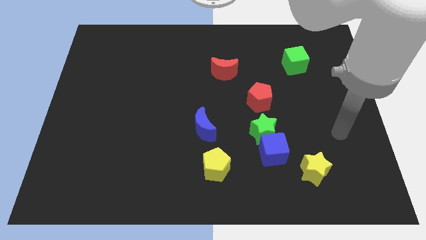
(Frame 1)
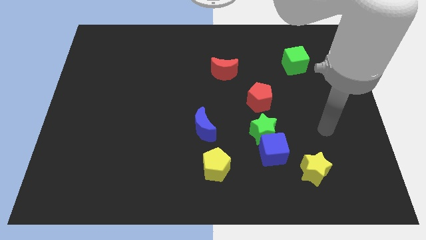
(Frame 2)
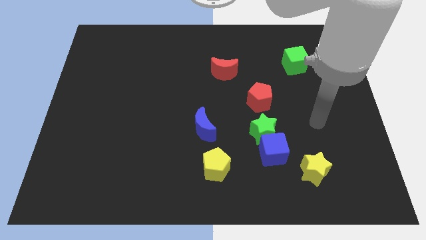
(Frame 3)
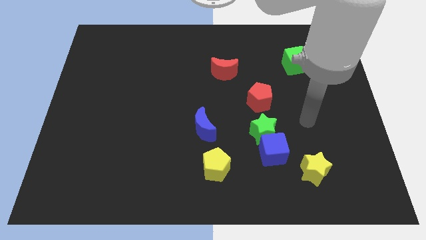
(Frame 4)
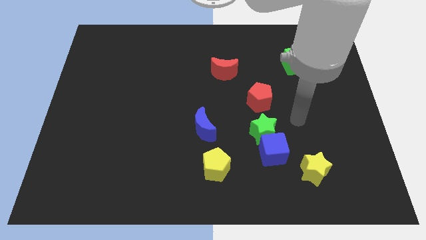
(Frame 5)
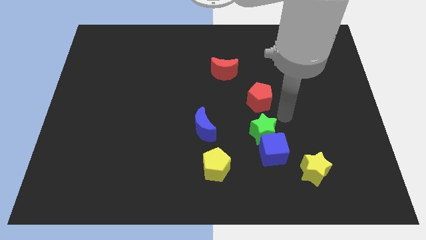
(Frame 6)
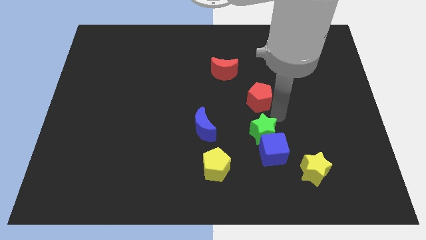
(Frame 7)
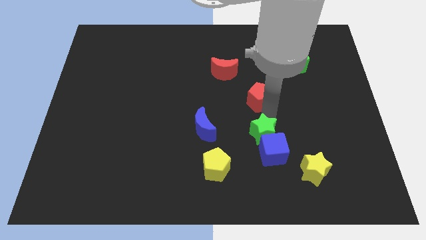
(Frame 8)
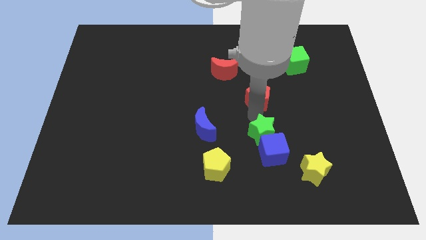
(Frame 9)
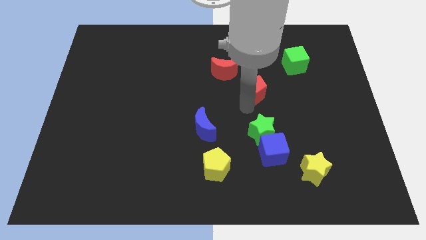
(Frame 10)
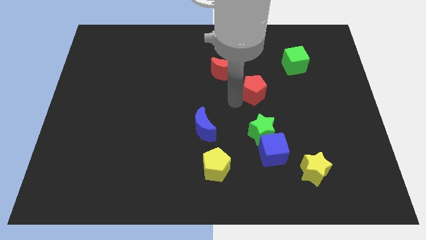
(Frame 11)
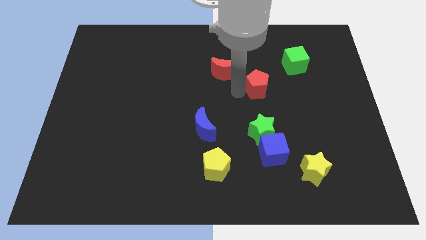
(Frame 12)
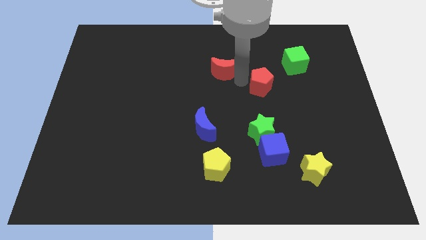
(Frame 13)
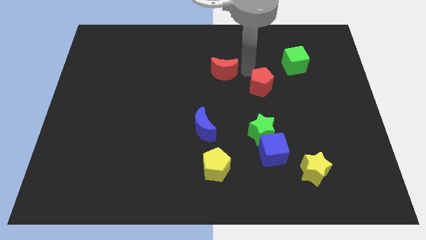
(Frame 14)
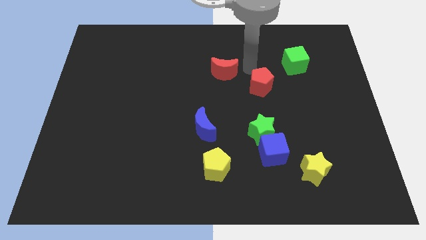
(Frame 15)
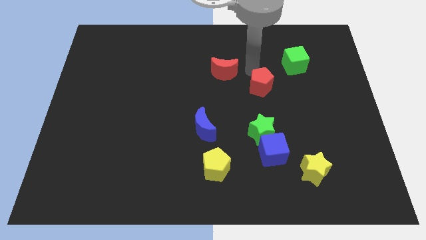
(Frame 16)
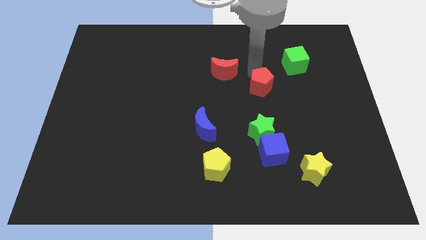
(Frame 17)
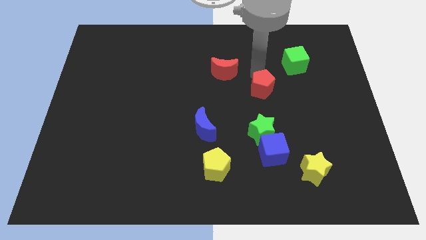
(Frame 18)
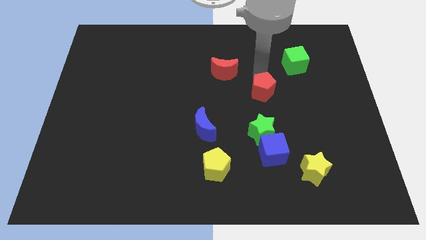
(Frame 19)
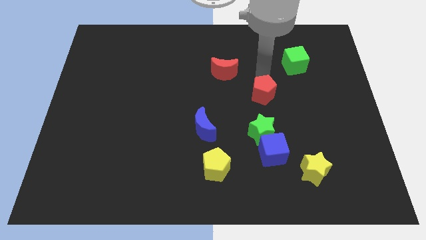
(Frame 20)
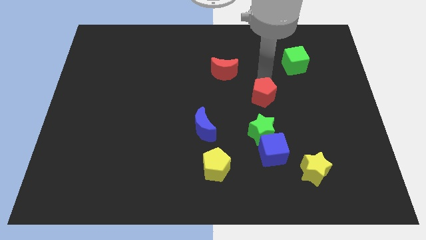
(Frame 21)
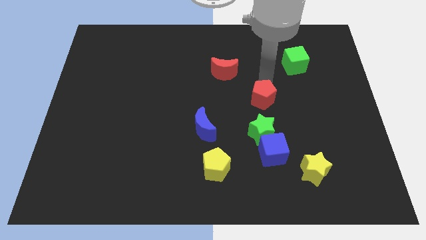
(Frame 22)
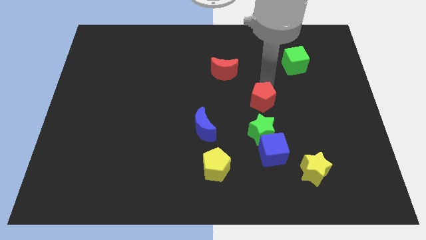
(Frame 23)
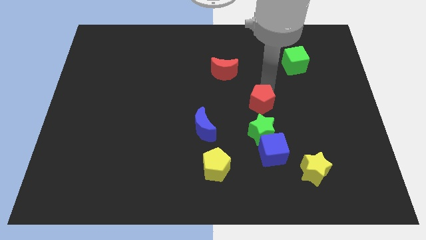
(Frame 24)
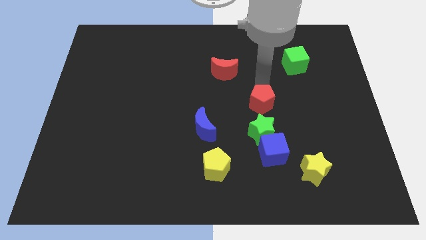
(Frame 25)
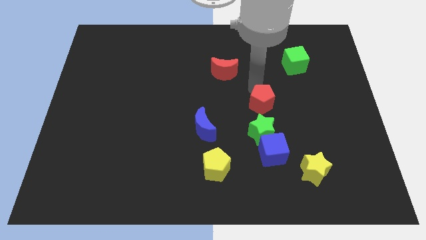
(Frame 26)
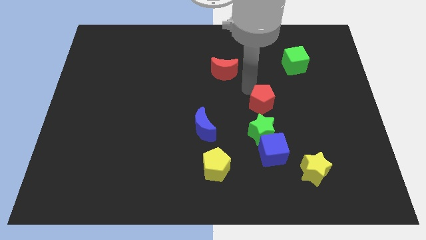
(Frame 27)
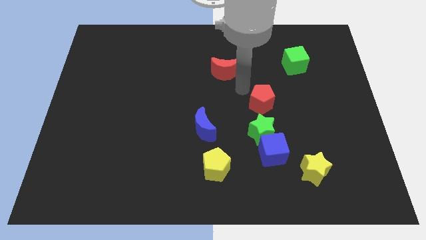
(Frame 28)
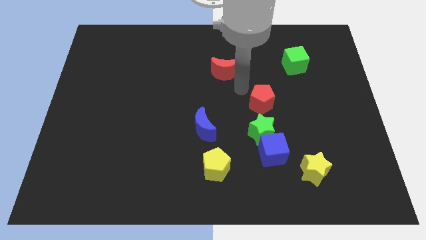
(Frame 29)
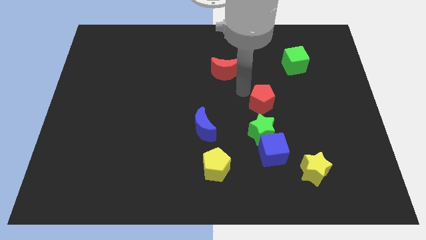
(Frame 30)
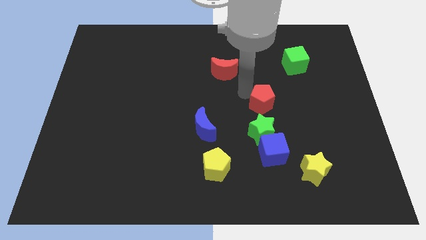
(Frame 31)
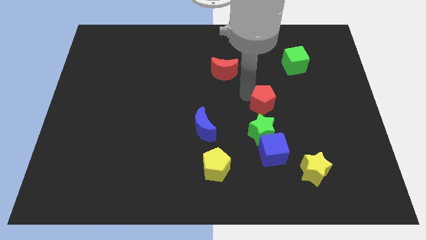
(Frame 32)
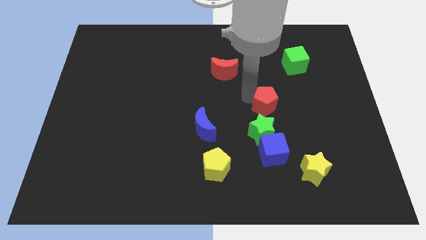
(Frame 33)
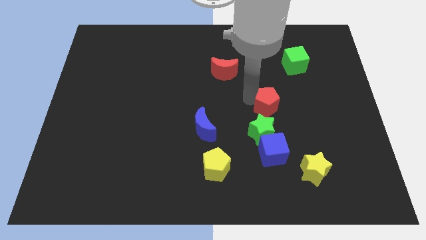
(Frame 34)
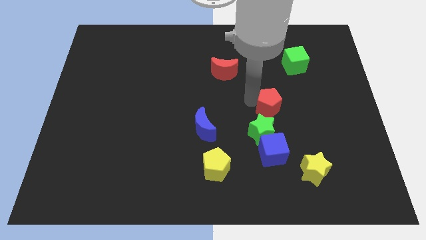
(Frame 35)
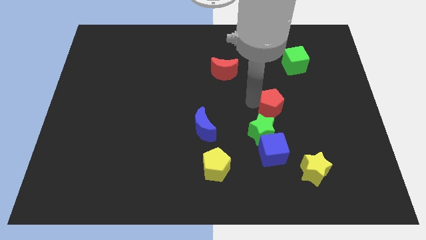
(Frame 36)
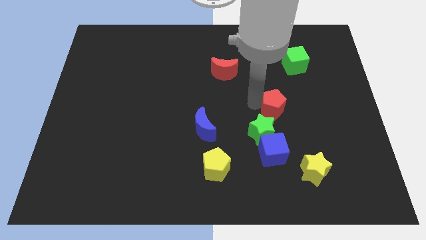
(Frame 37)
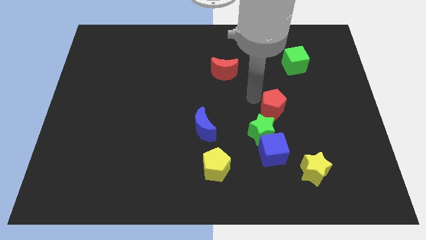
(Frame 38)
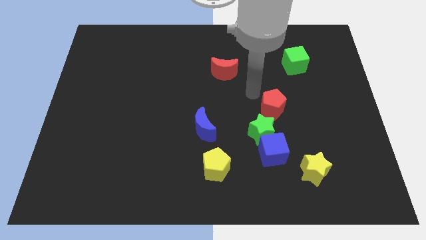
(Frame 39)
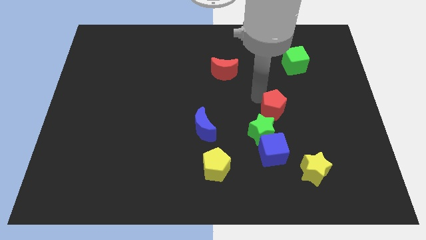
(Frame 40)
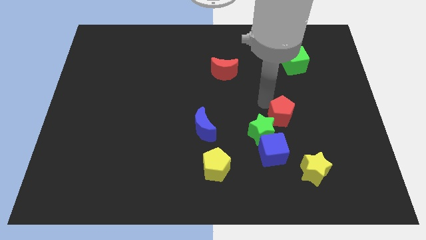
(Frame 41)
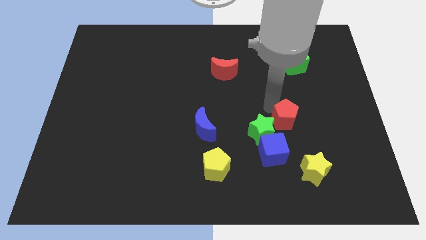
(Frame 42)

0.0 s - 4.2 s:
push the red pentagon slightly down and then right

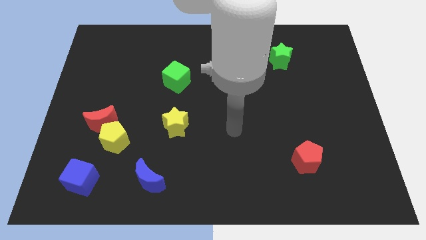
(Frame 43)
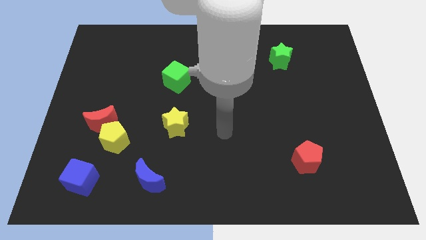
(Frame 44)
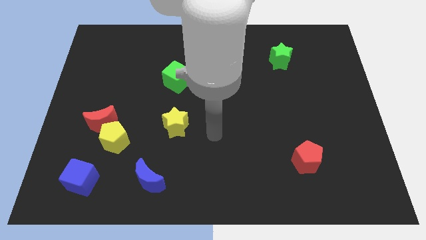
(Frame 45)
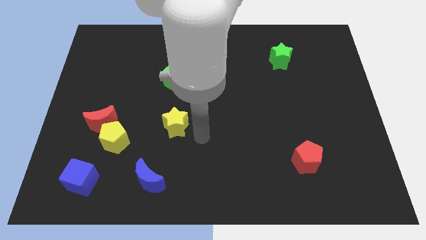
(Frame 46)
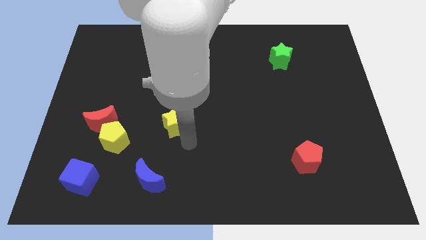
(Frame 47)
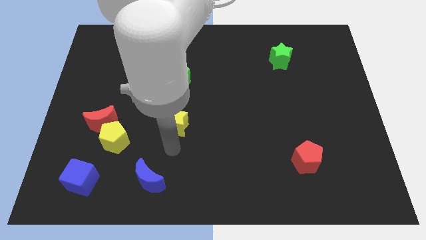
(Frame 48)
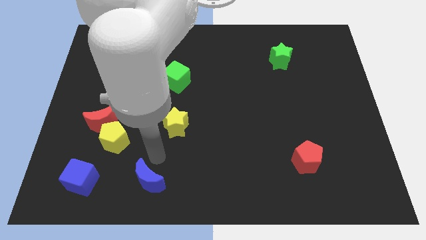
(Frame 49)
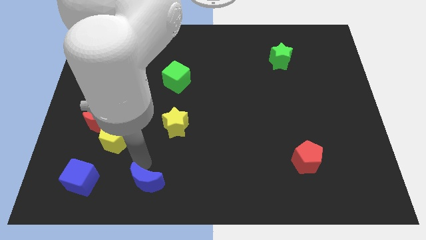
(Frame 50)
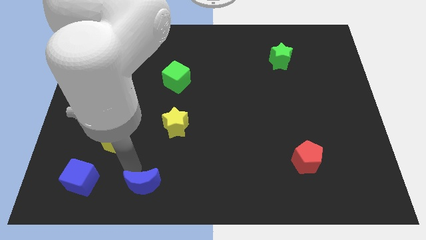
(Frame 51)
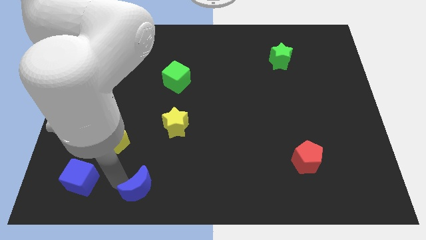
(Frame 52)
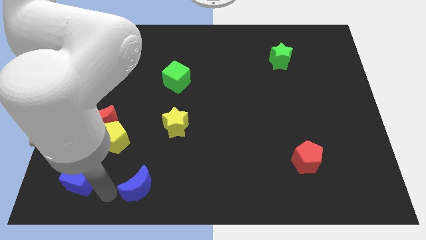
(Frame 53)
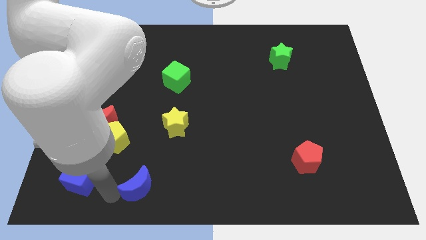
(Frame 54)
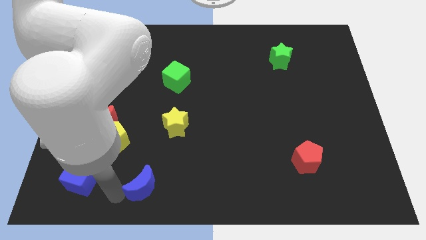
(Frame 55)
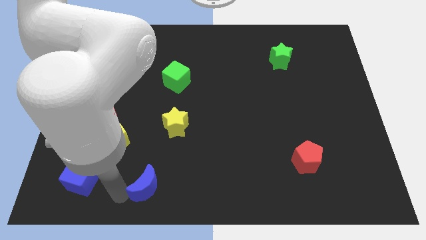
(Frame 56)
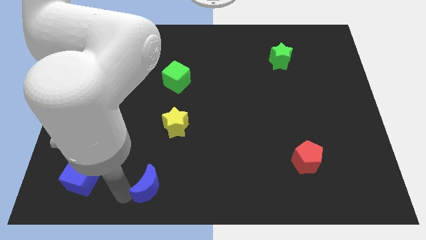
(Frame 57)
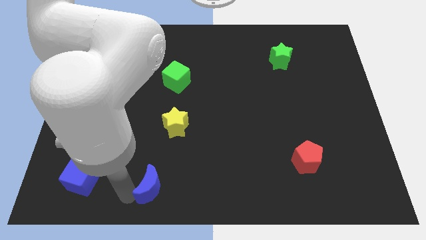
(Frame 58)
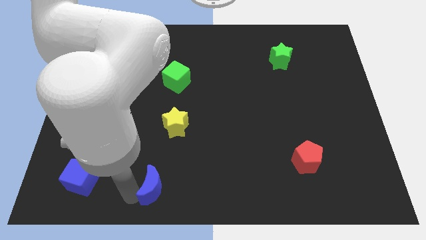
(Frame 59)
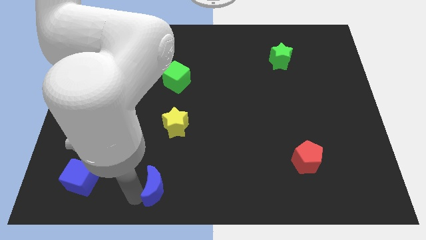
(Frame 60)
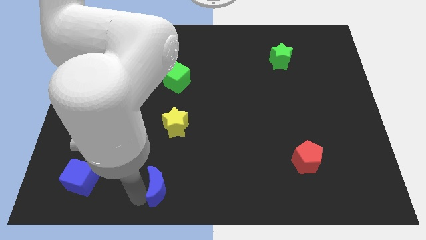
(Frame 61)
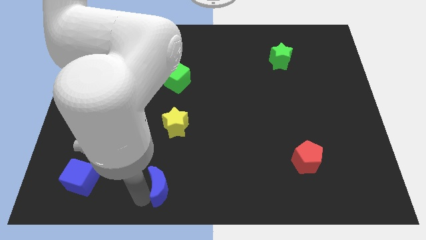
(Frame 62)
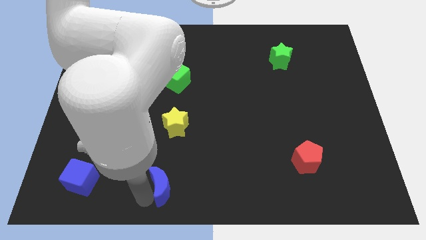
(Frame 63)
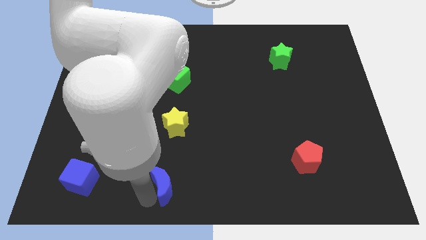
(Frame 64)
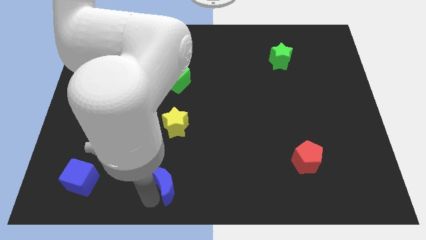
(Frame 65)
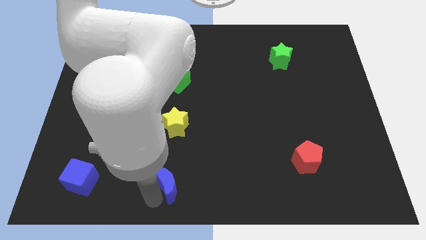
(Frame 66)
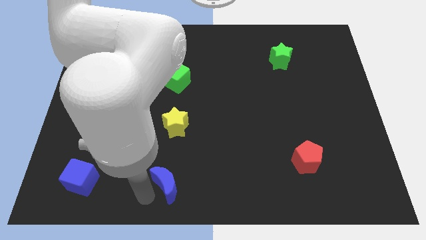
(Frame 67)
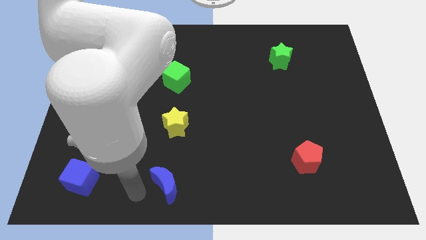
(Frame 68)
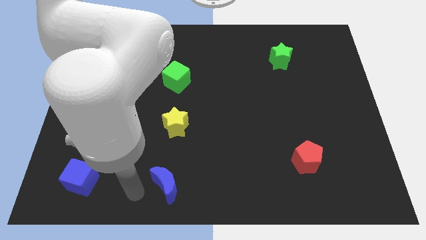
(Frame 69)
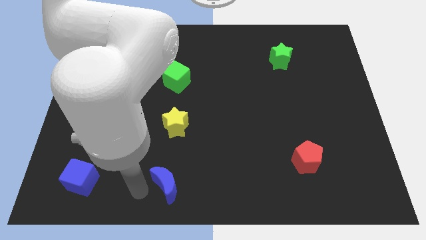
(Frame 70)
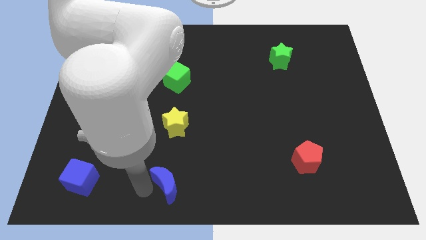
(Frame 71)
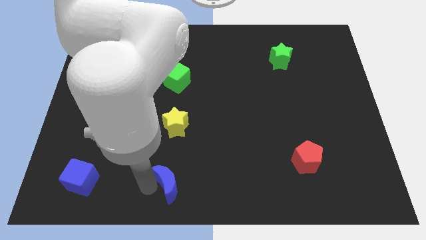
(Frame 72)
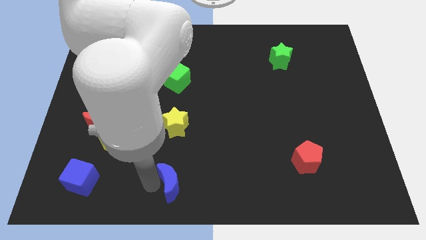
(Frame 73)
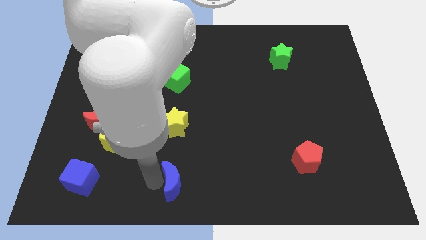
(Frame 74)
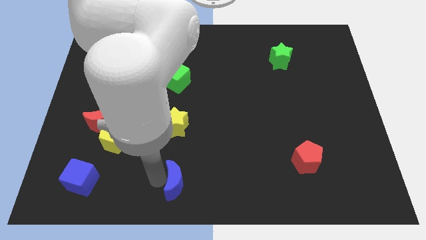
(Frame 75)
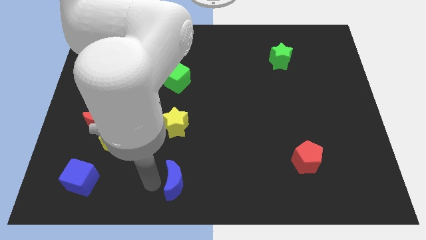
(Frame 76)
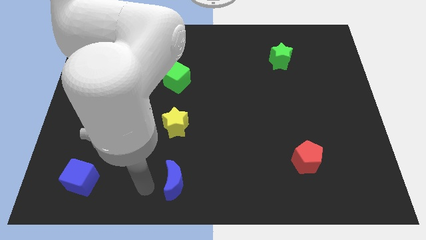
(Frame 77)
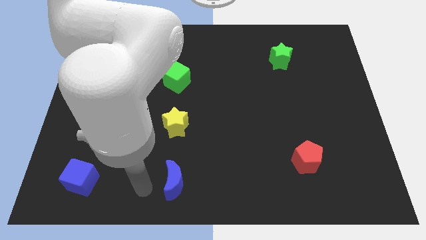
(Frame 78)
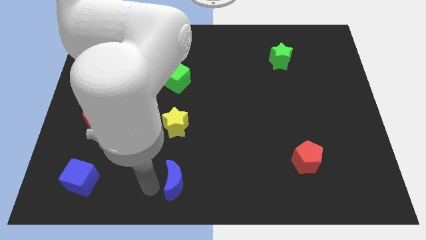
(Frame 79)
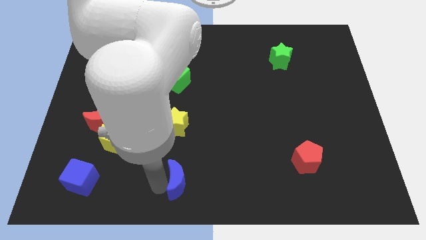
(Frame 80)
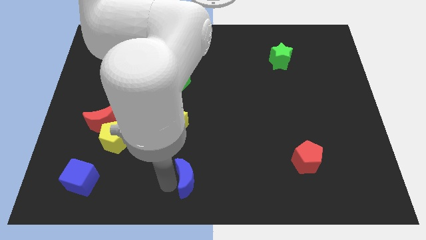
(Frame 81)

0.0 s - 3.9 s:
slightly push the blue moon right
